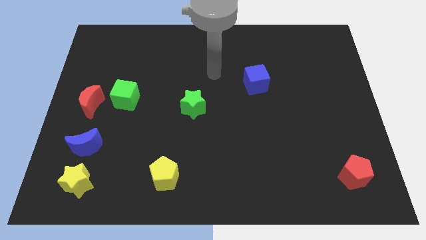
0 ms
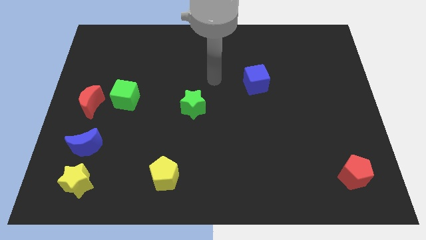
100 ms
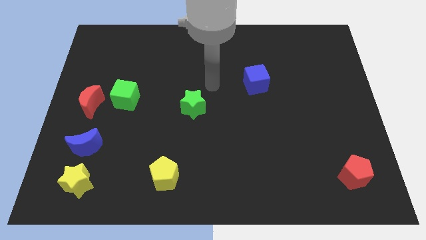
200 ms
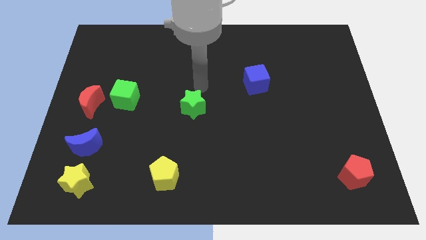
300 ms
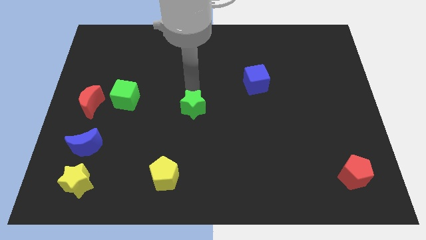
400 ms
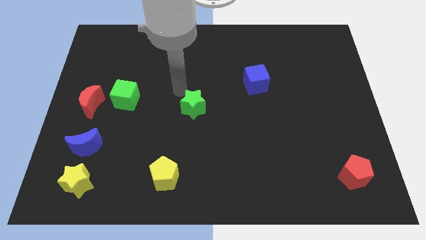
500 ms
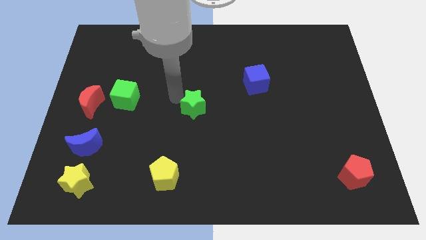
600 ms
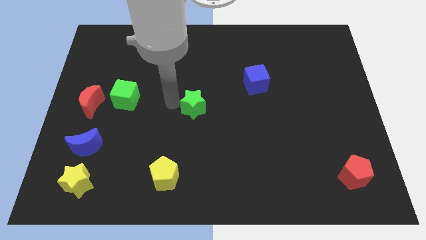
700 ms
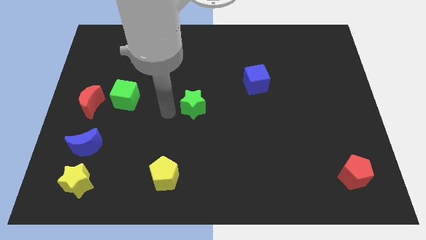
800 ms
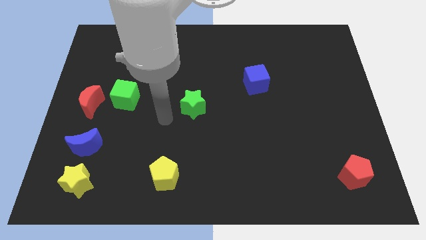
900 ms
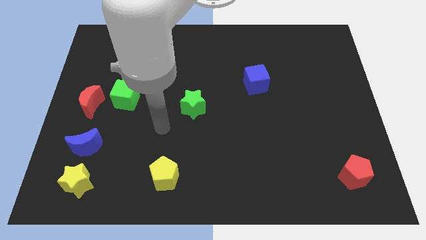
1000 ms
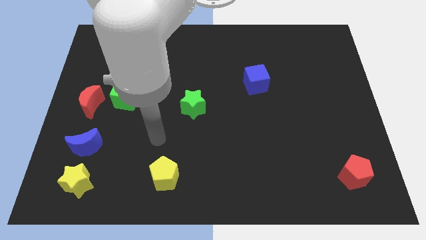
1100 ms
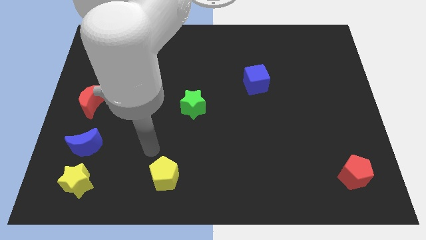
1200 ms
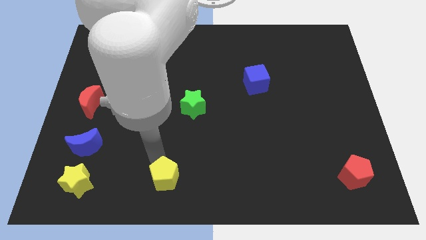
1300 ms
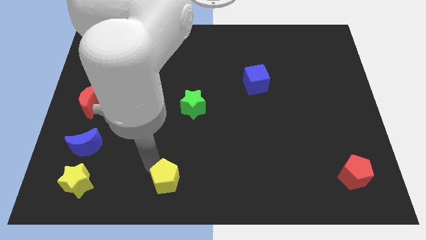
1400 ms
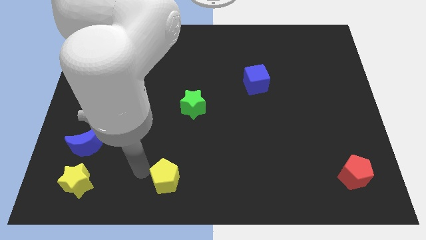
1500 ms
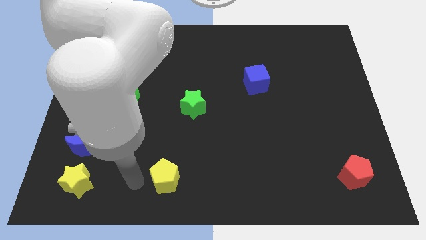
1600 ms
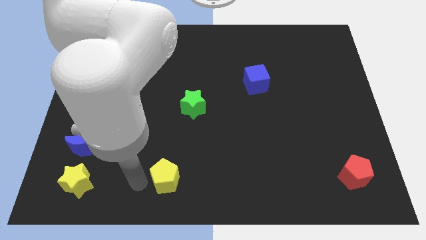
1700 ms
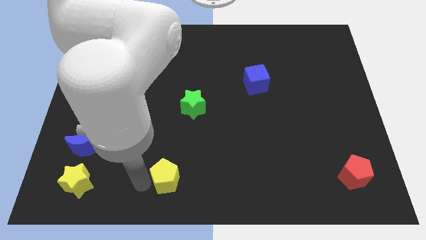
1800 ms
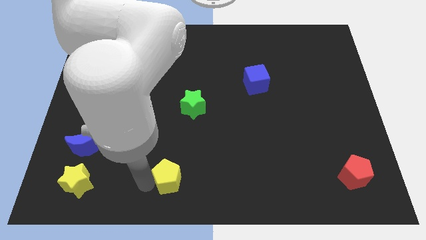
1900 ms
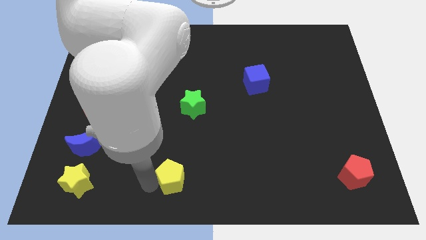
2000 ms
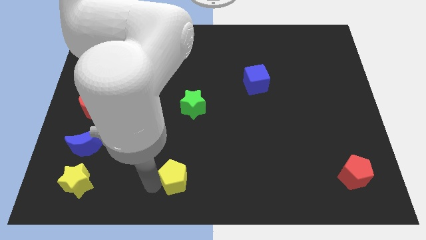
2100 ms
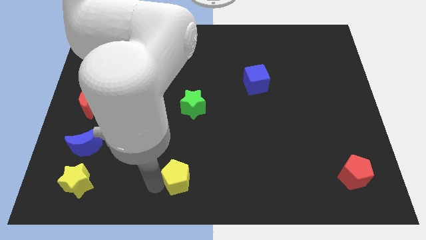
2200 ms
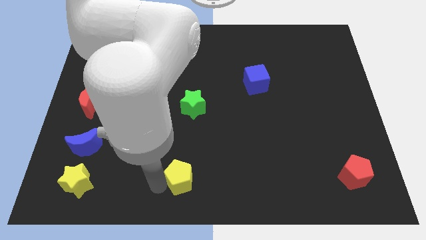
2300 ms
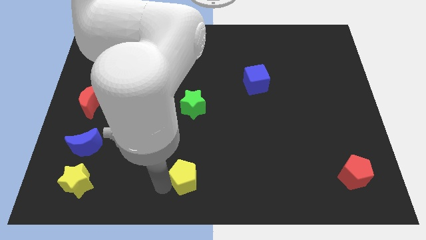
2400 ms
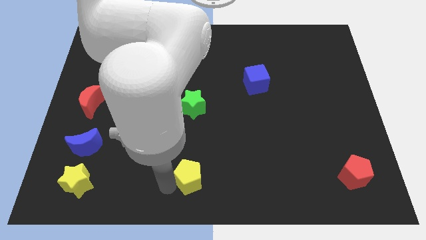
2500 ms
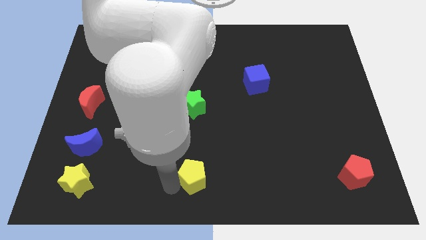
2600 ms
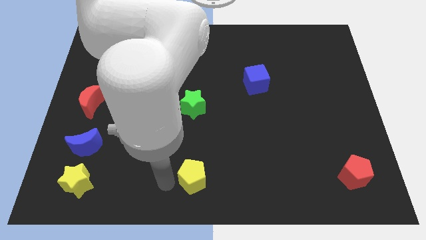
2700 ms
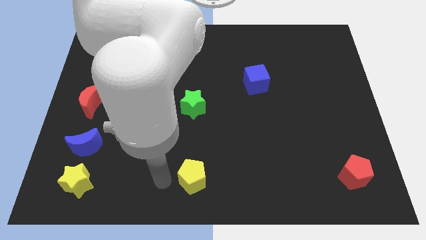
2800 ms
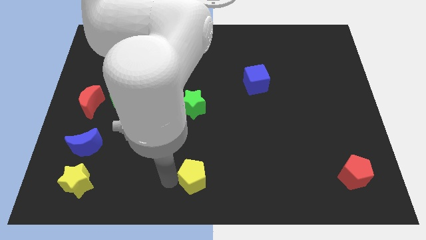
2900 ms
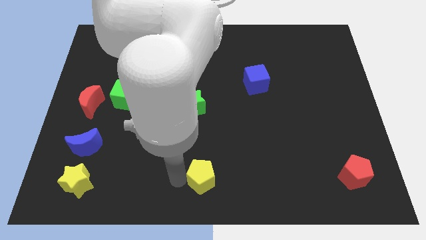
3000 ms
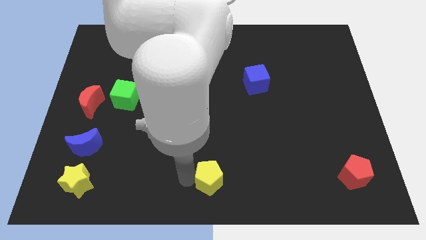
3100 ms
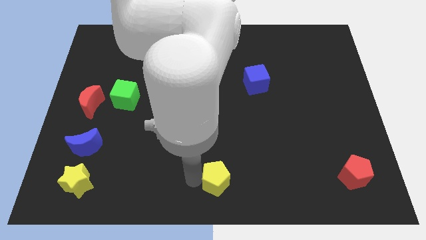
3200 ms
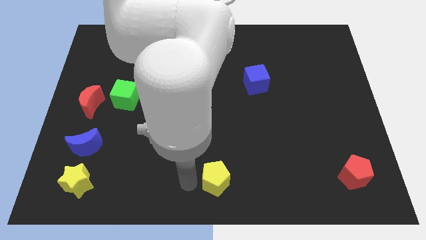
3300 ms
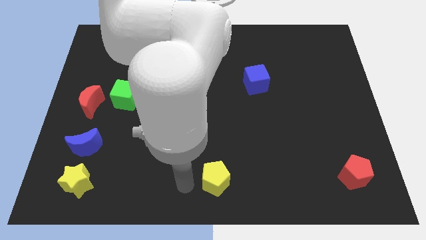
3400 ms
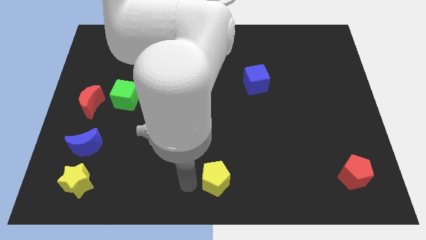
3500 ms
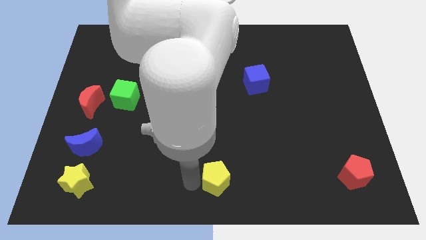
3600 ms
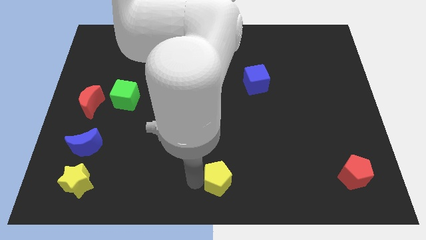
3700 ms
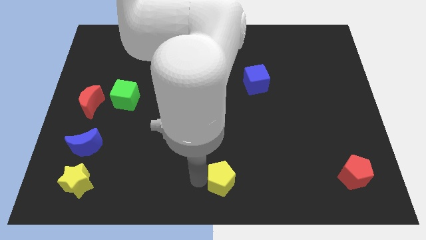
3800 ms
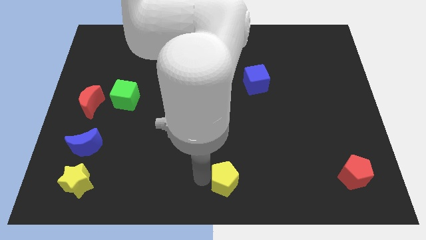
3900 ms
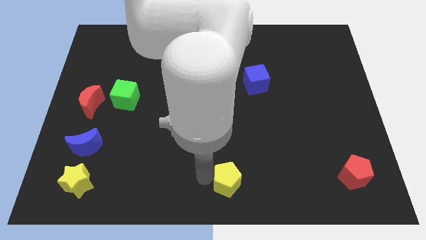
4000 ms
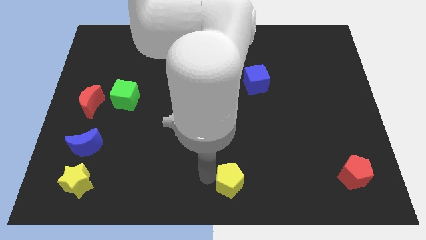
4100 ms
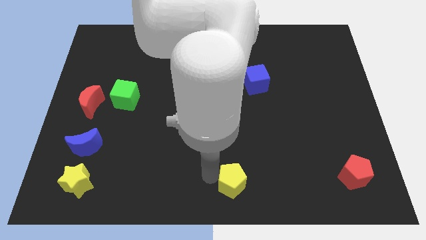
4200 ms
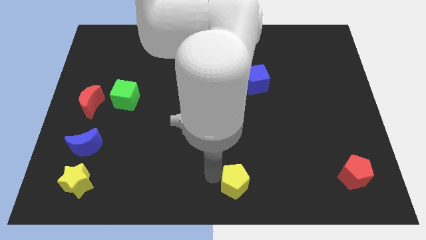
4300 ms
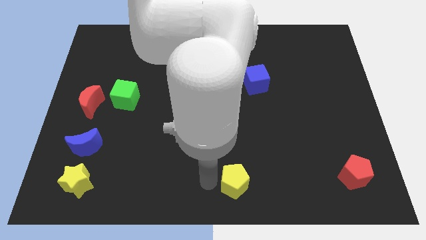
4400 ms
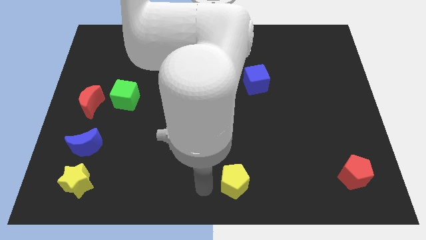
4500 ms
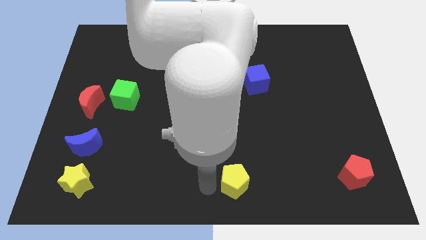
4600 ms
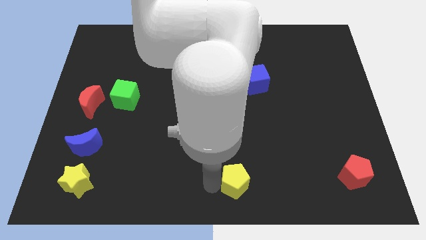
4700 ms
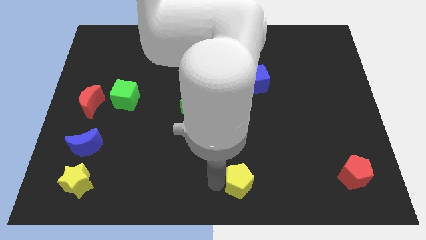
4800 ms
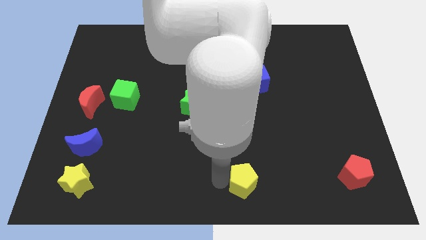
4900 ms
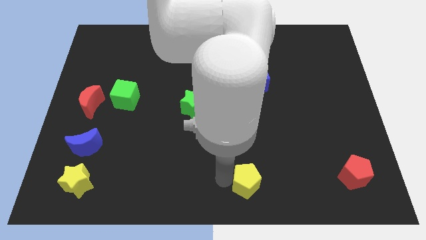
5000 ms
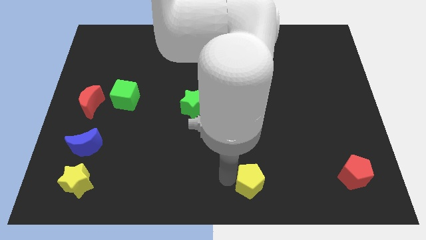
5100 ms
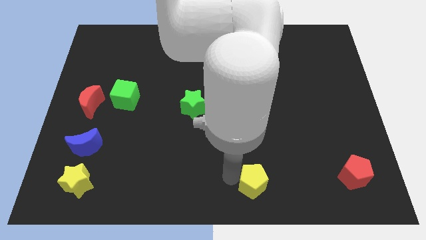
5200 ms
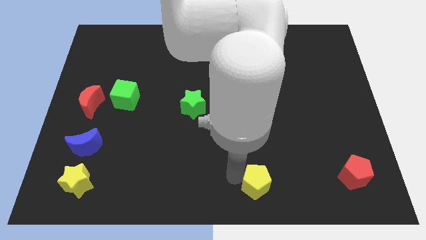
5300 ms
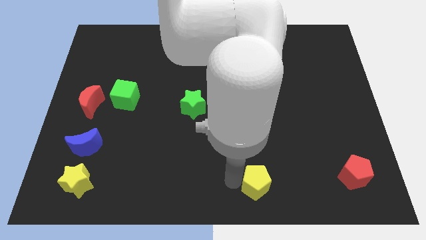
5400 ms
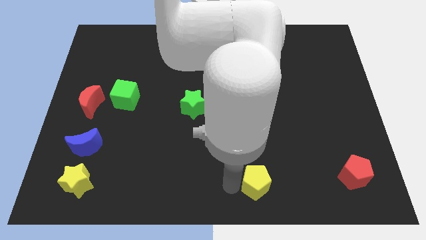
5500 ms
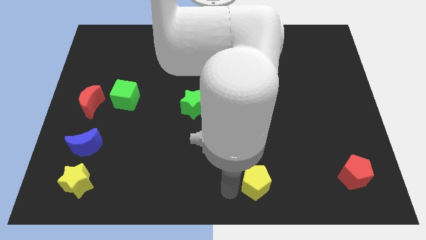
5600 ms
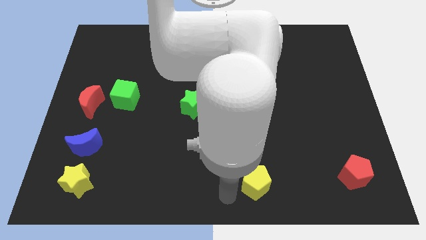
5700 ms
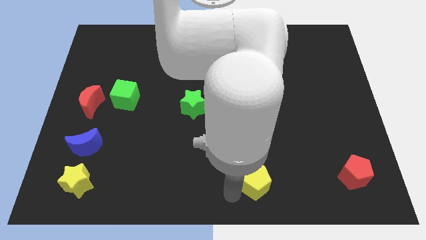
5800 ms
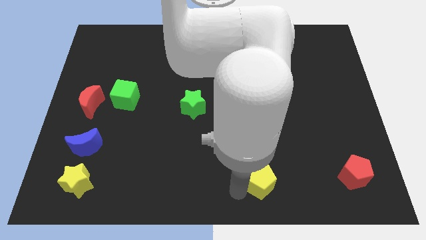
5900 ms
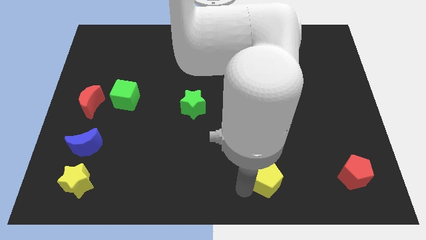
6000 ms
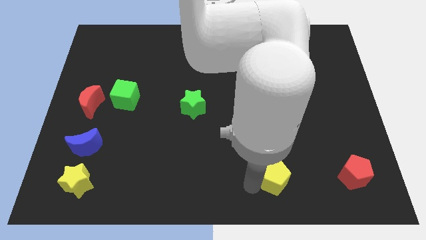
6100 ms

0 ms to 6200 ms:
put the yellow pentagon left of the red pentagon

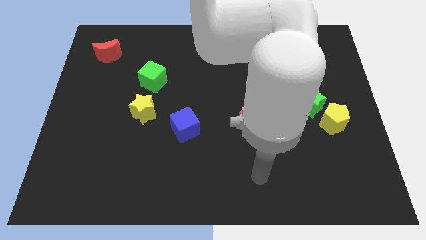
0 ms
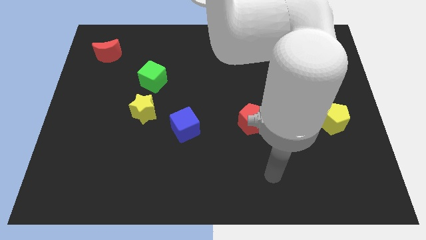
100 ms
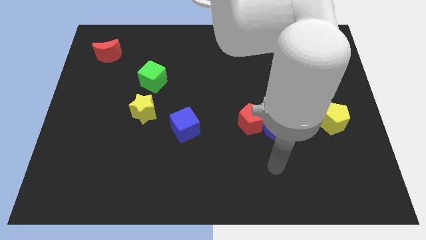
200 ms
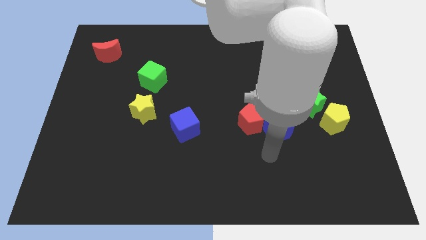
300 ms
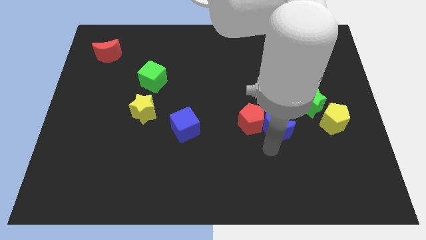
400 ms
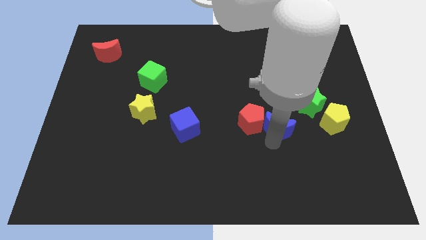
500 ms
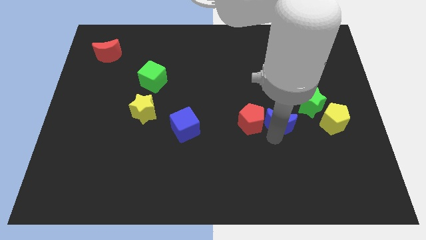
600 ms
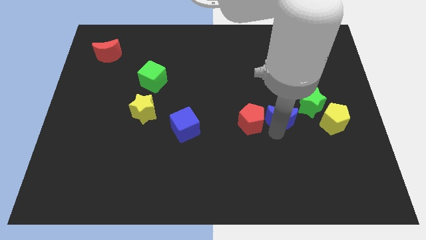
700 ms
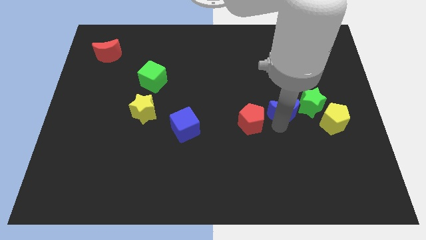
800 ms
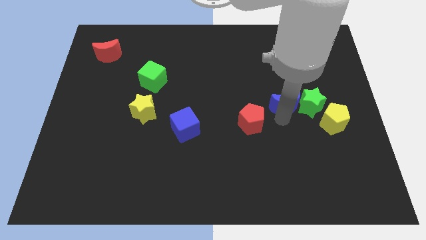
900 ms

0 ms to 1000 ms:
put the blue moon to the top left of the green star

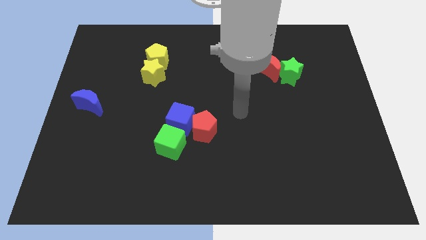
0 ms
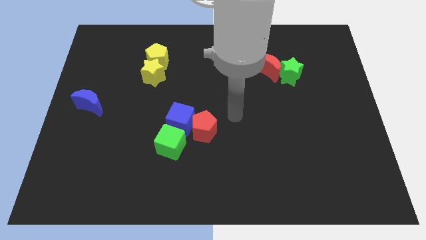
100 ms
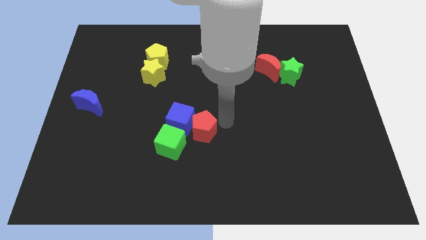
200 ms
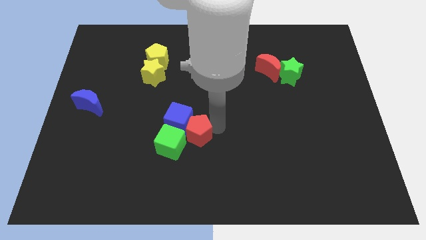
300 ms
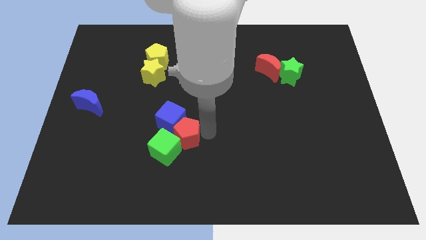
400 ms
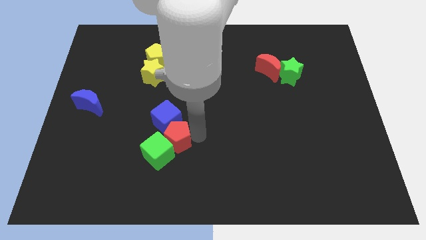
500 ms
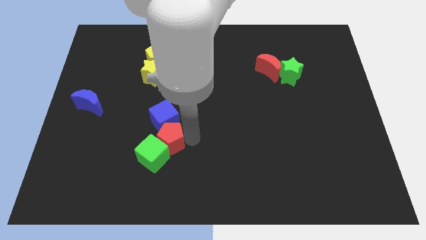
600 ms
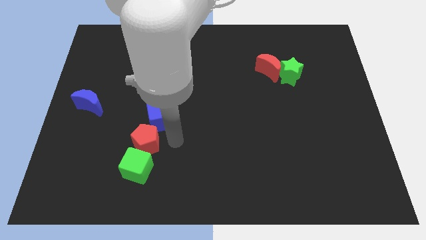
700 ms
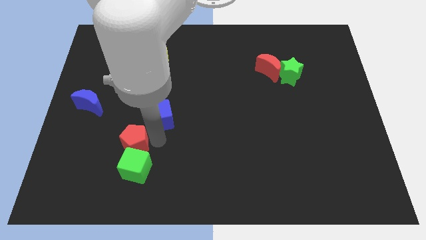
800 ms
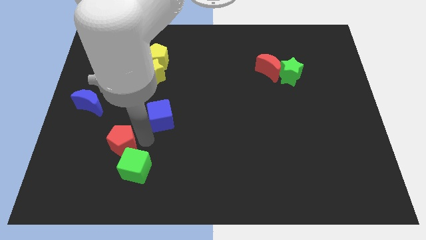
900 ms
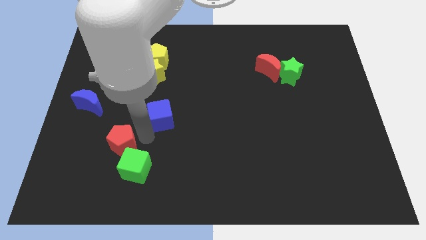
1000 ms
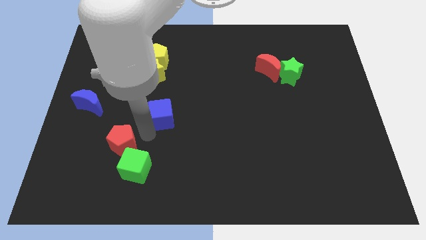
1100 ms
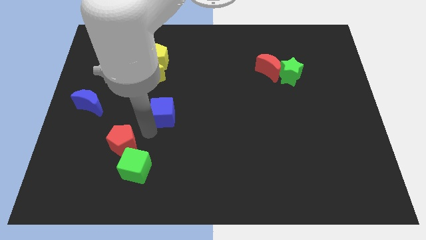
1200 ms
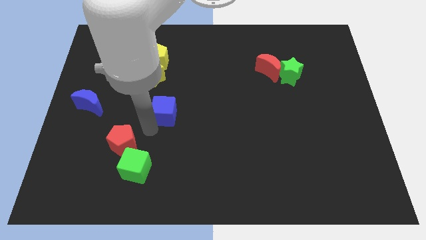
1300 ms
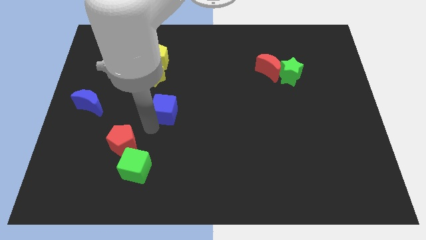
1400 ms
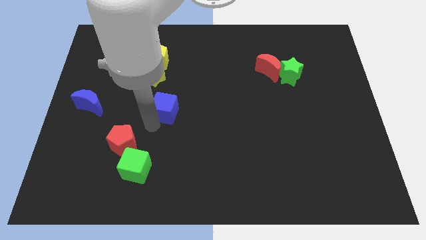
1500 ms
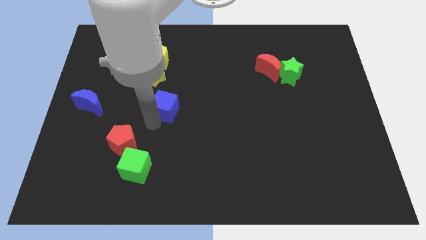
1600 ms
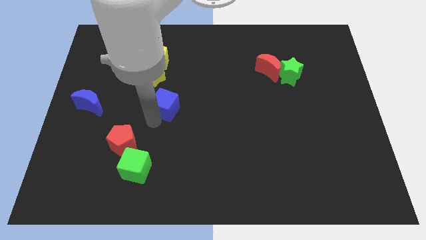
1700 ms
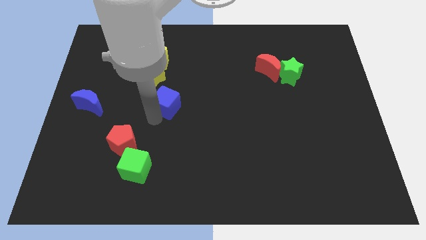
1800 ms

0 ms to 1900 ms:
push the blue cube to the bottom right of the yellow star
